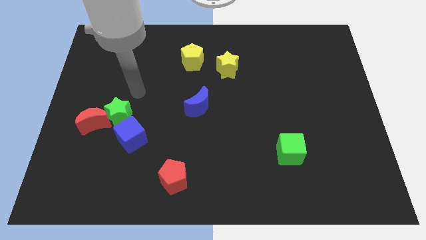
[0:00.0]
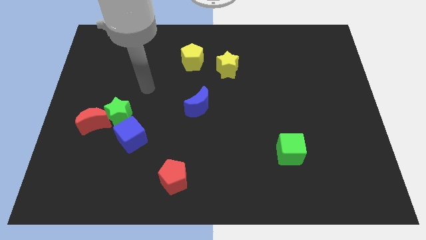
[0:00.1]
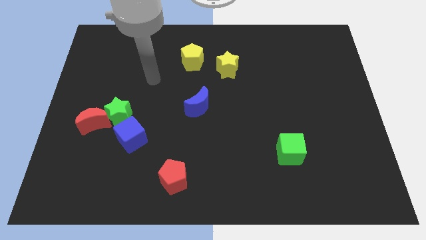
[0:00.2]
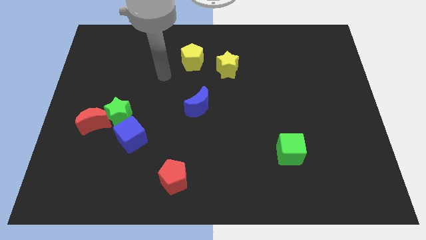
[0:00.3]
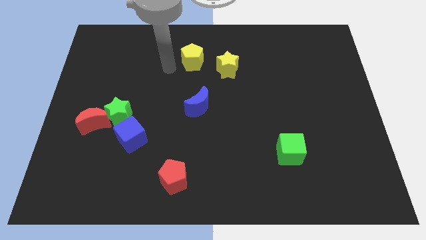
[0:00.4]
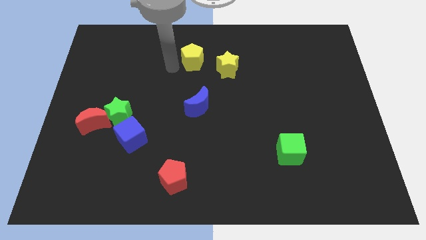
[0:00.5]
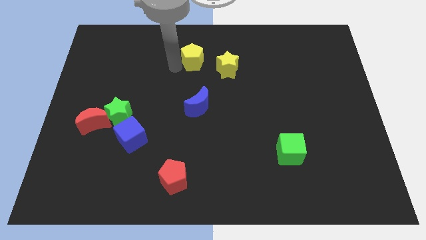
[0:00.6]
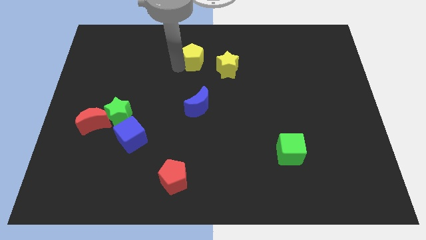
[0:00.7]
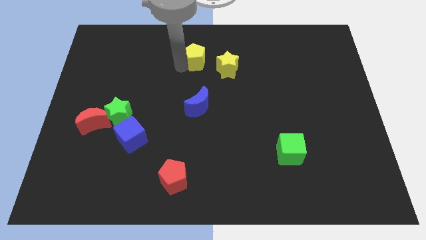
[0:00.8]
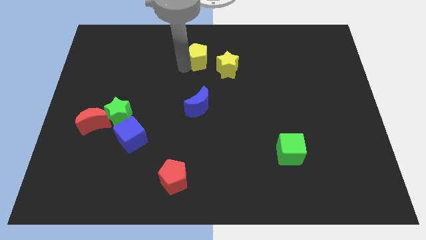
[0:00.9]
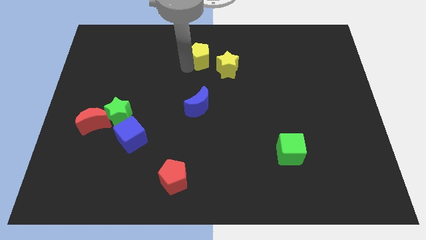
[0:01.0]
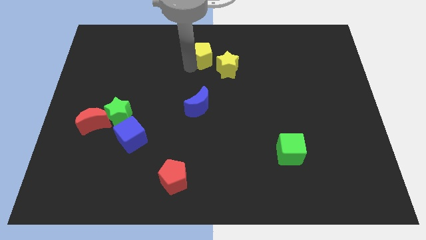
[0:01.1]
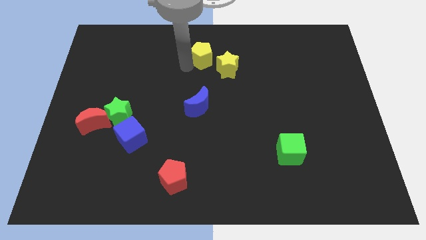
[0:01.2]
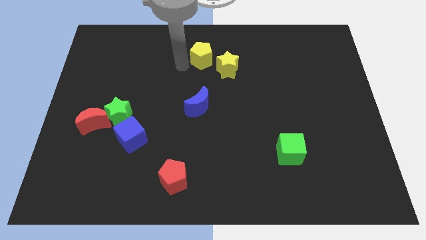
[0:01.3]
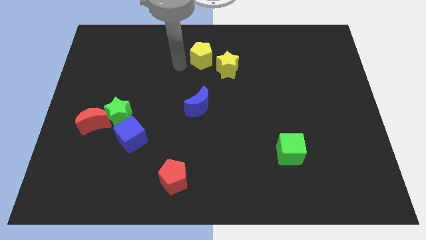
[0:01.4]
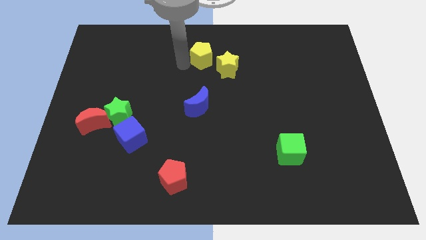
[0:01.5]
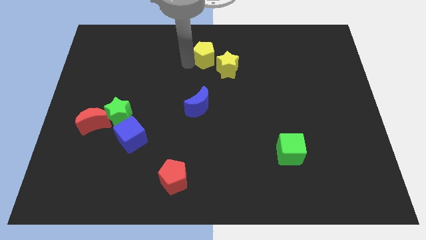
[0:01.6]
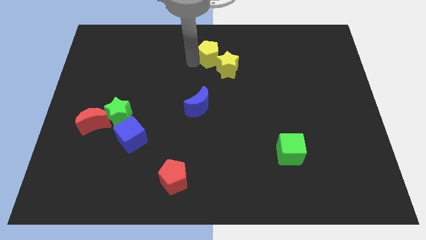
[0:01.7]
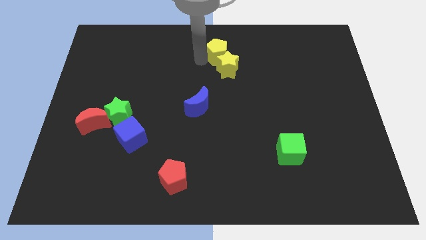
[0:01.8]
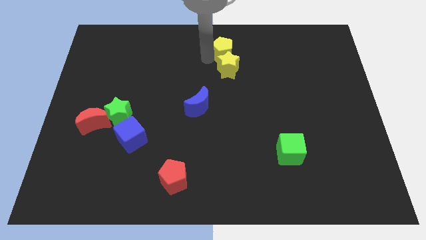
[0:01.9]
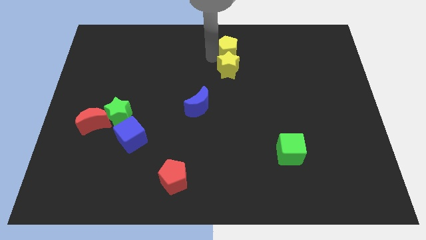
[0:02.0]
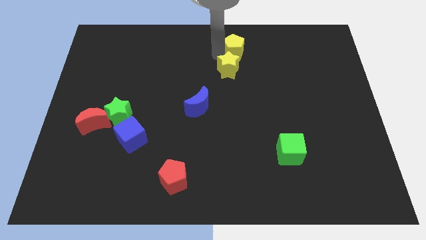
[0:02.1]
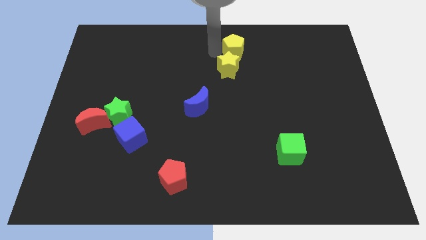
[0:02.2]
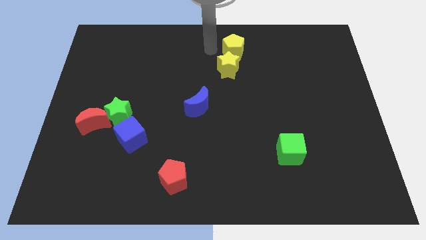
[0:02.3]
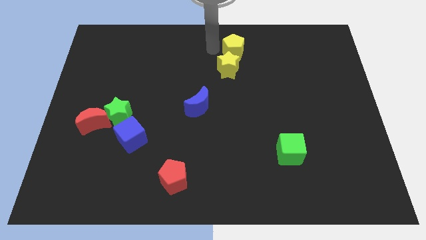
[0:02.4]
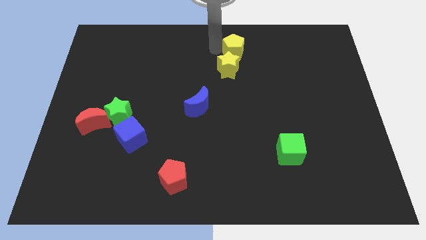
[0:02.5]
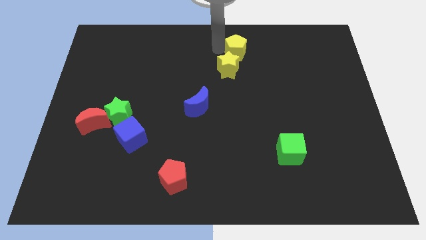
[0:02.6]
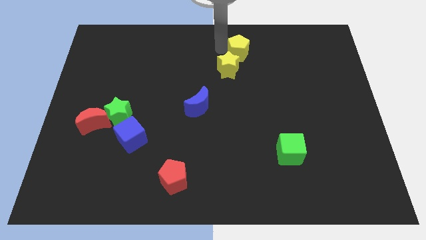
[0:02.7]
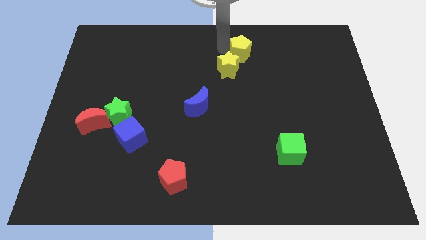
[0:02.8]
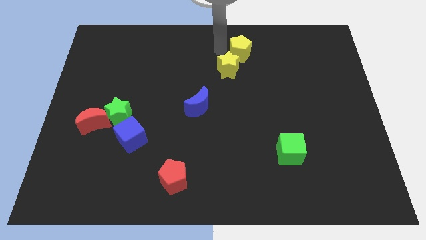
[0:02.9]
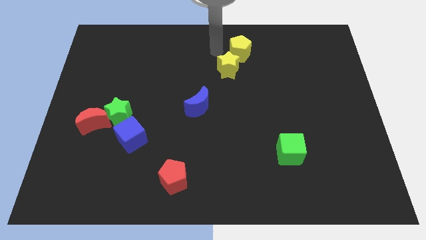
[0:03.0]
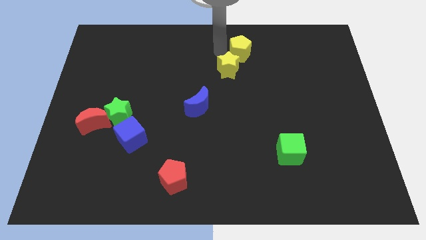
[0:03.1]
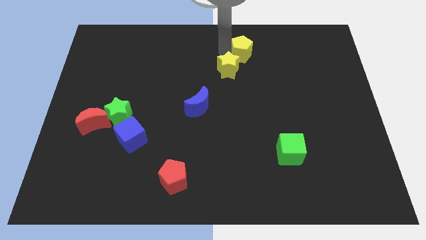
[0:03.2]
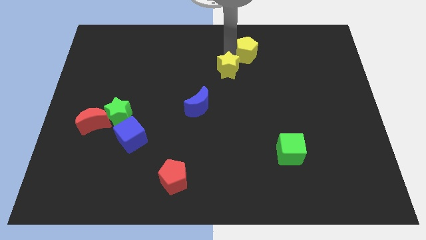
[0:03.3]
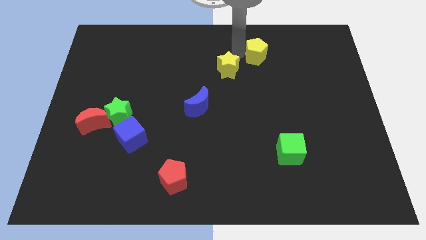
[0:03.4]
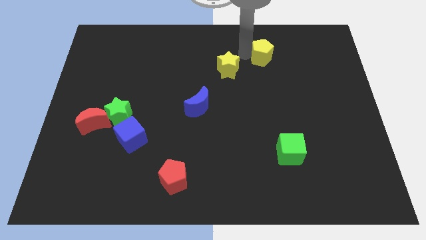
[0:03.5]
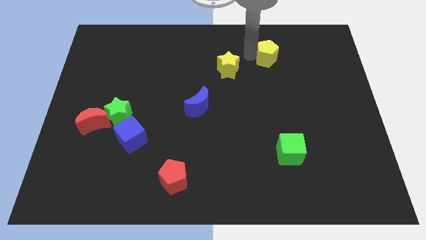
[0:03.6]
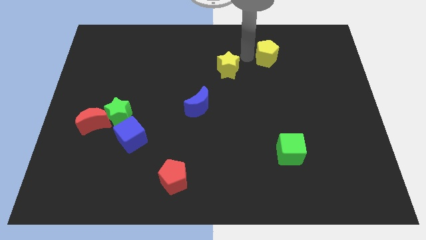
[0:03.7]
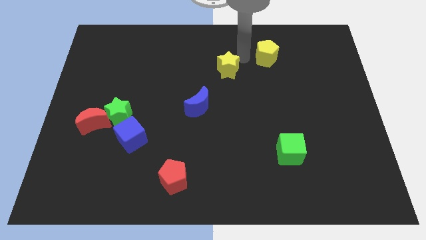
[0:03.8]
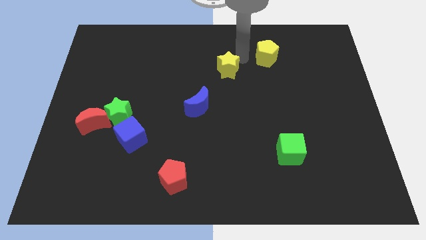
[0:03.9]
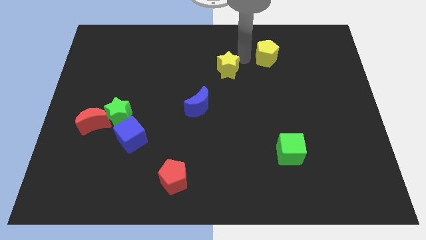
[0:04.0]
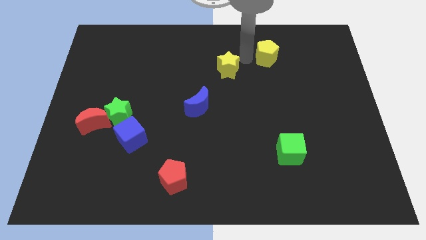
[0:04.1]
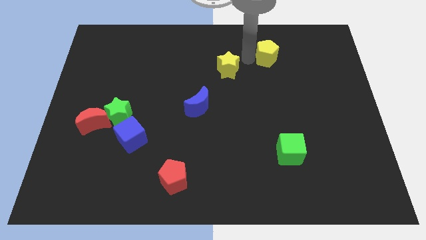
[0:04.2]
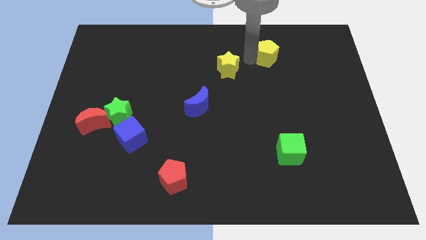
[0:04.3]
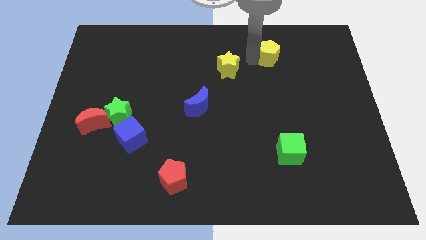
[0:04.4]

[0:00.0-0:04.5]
move the yellow pentagon right

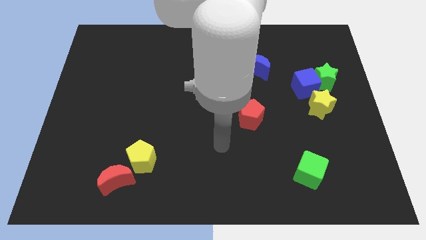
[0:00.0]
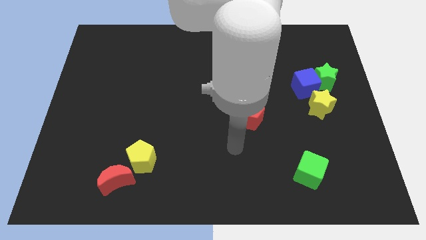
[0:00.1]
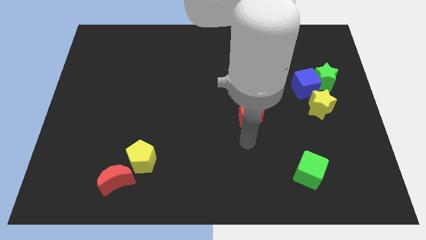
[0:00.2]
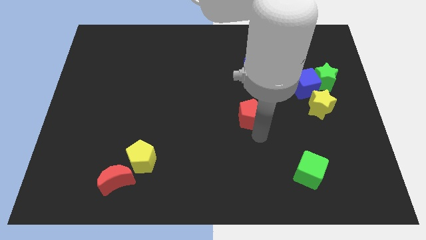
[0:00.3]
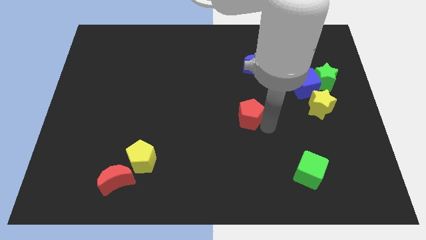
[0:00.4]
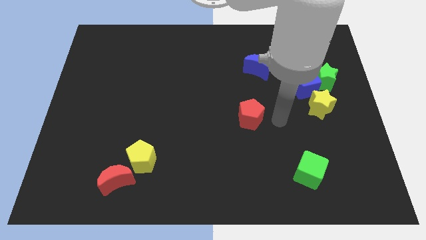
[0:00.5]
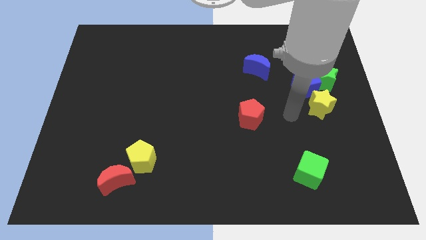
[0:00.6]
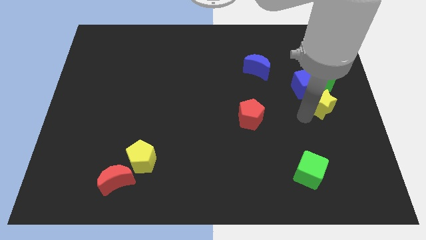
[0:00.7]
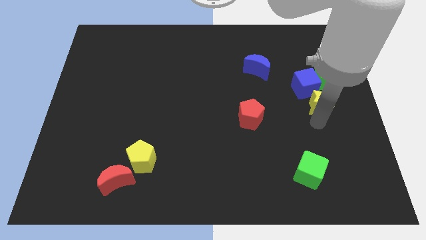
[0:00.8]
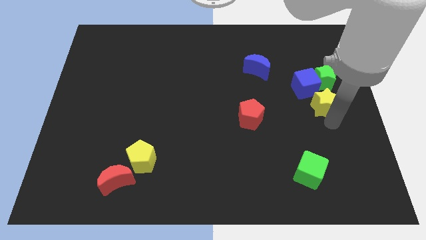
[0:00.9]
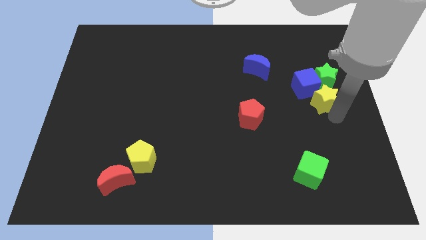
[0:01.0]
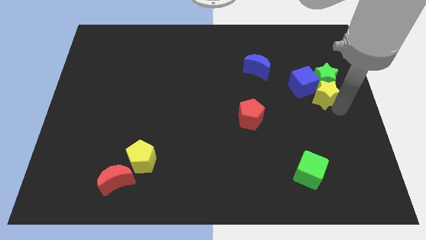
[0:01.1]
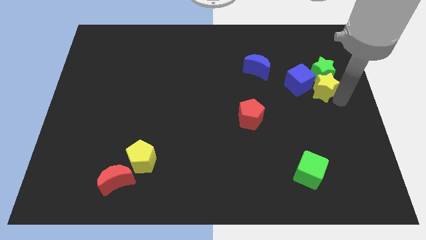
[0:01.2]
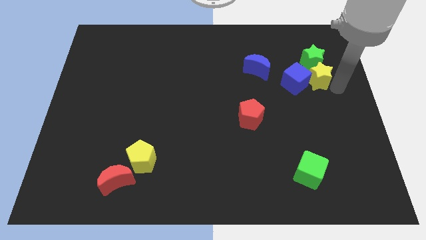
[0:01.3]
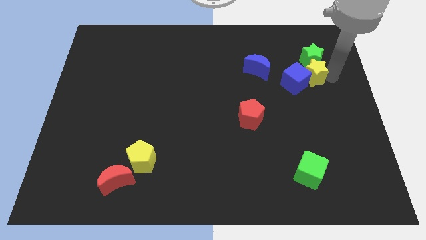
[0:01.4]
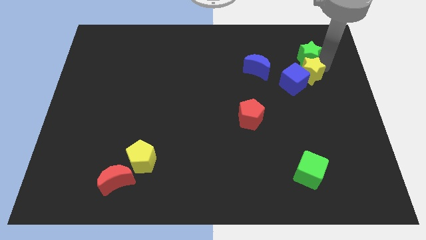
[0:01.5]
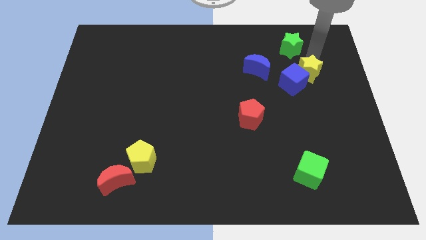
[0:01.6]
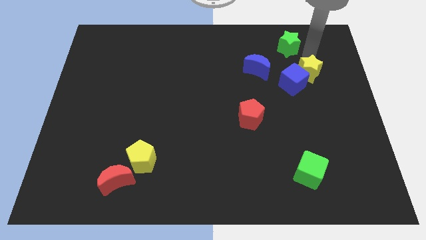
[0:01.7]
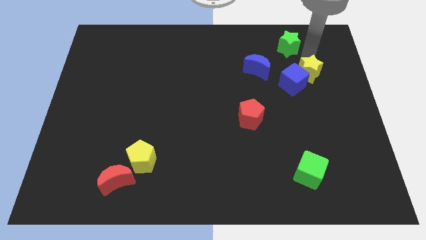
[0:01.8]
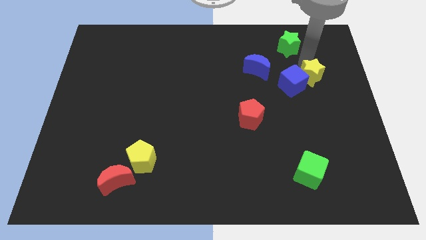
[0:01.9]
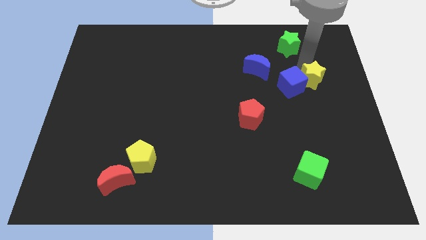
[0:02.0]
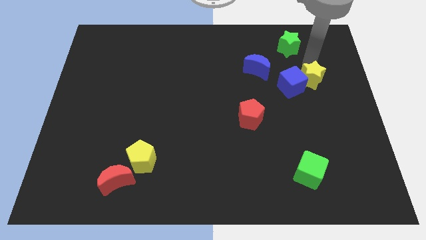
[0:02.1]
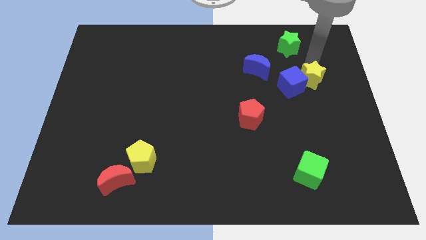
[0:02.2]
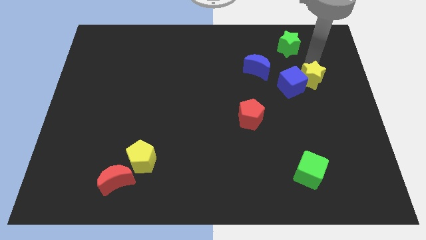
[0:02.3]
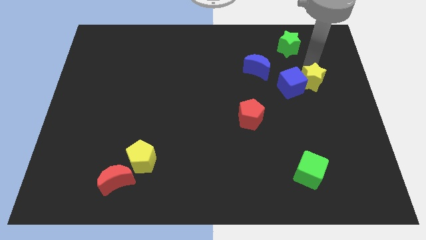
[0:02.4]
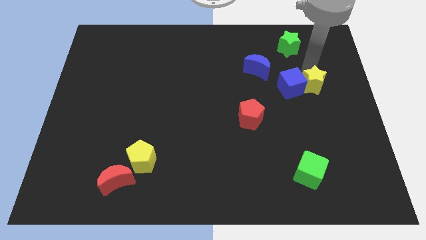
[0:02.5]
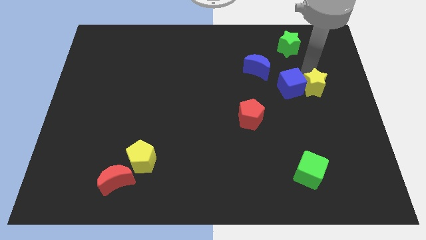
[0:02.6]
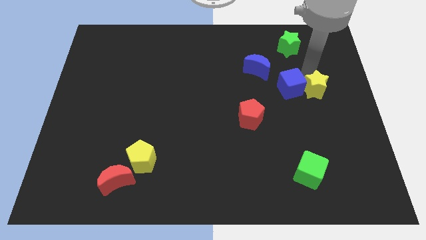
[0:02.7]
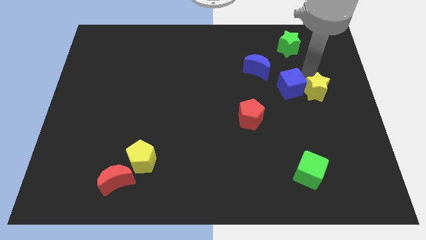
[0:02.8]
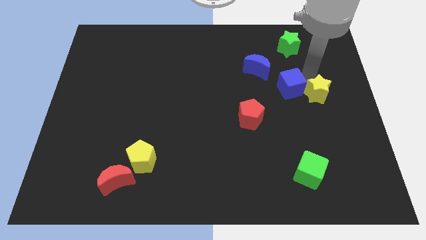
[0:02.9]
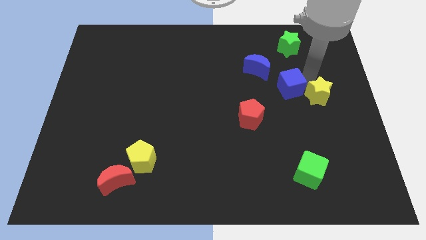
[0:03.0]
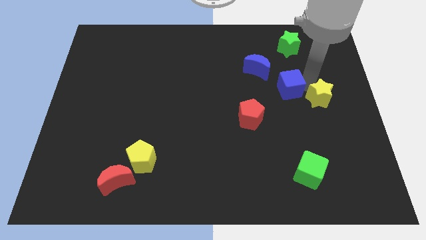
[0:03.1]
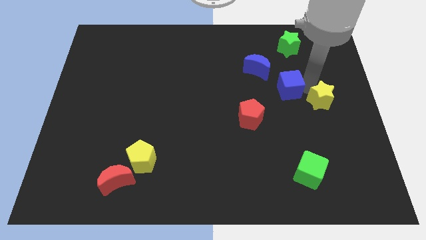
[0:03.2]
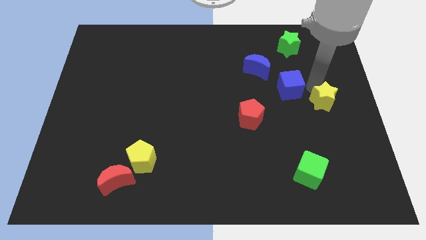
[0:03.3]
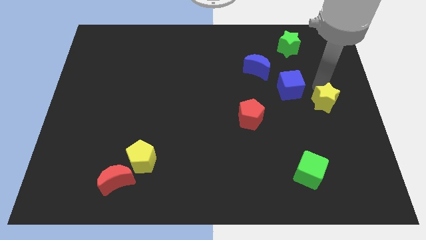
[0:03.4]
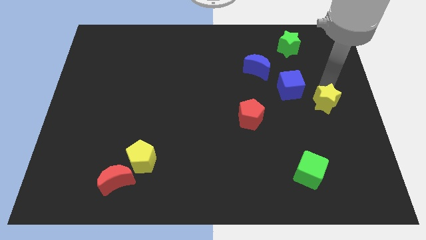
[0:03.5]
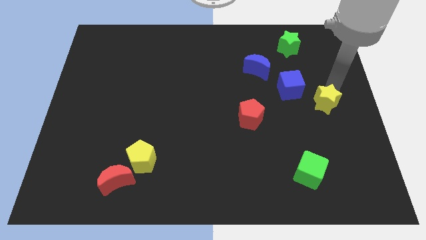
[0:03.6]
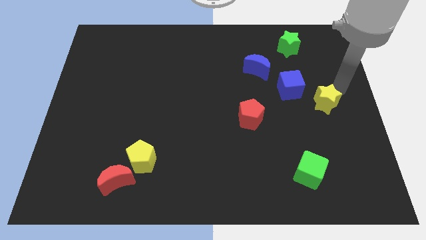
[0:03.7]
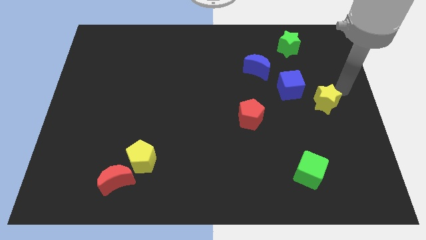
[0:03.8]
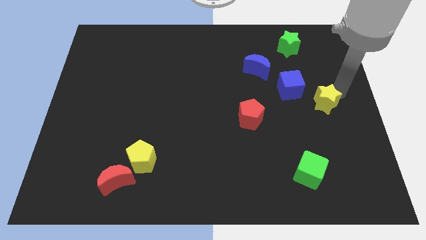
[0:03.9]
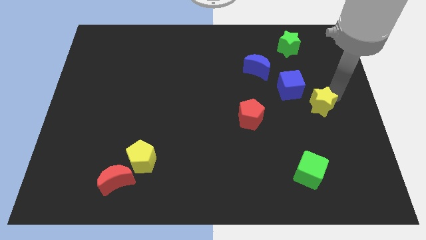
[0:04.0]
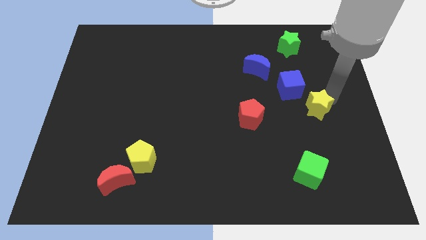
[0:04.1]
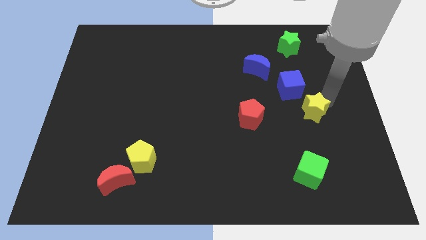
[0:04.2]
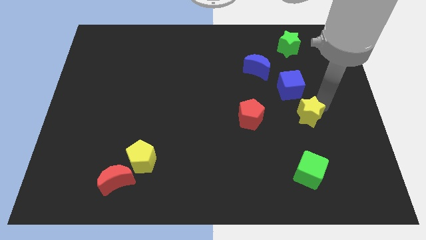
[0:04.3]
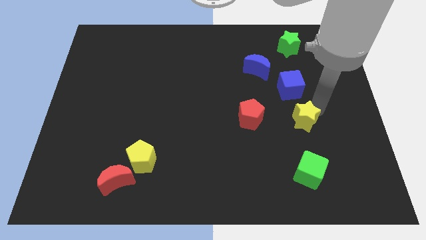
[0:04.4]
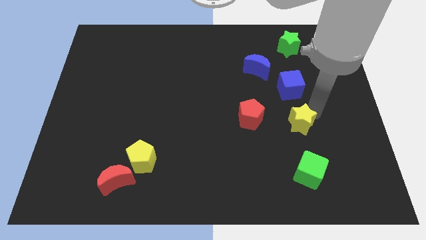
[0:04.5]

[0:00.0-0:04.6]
push the yellow star a little down and then to the left
